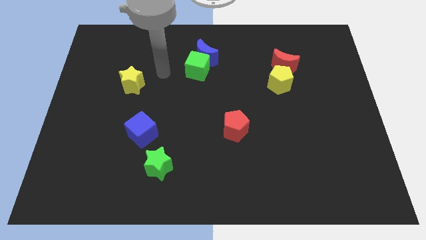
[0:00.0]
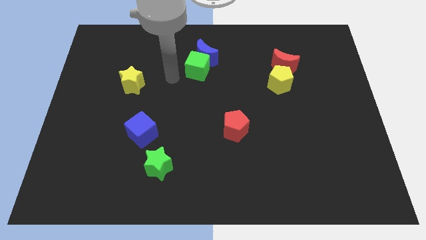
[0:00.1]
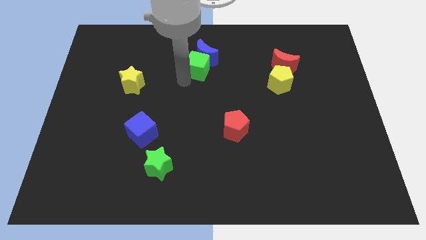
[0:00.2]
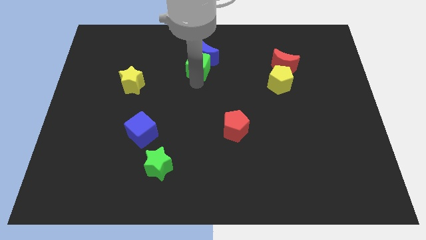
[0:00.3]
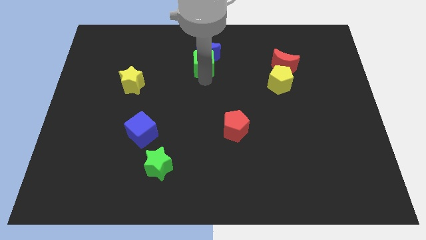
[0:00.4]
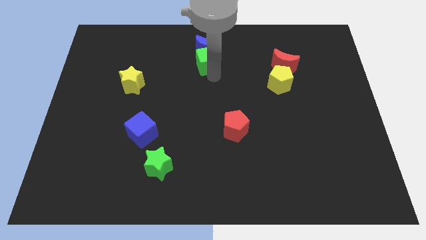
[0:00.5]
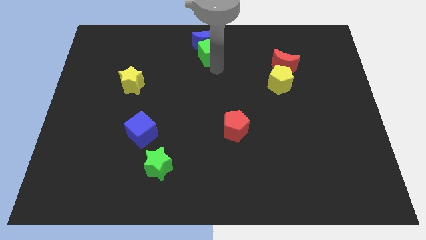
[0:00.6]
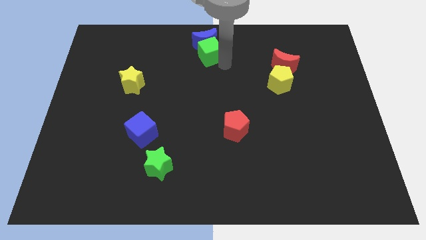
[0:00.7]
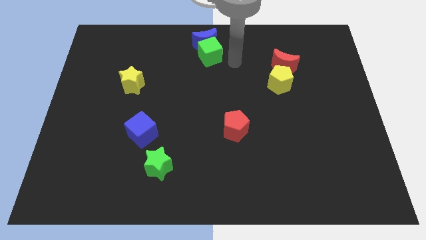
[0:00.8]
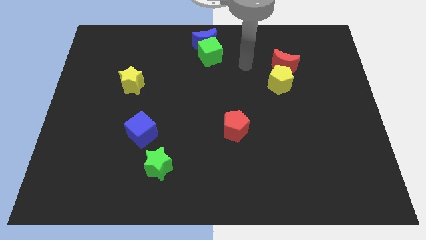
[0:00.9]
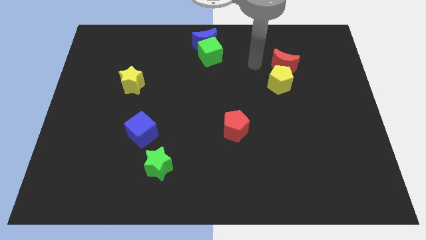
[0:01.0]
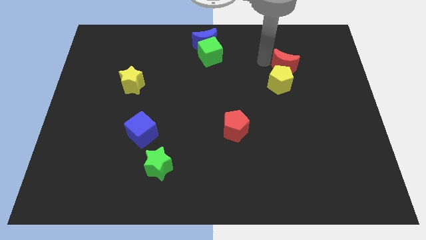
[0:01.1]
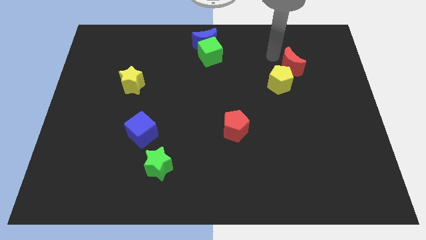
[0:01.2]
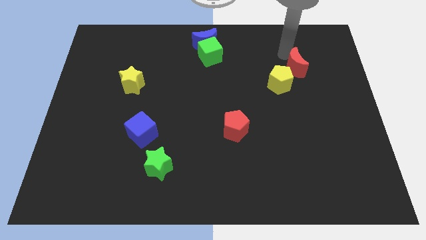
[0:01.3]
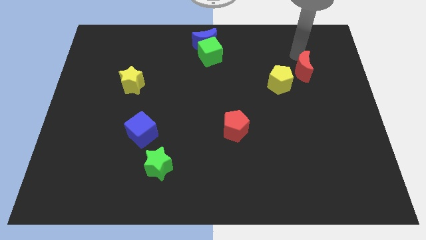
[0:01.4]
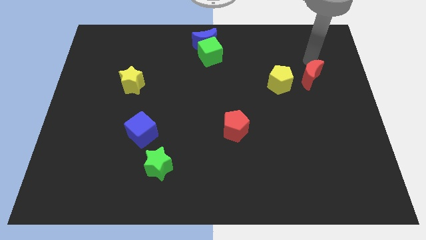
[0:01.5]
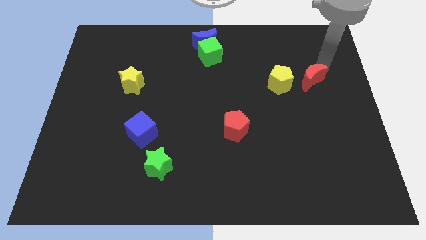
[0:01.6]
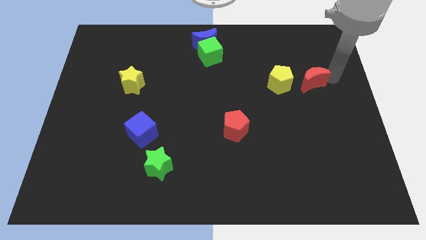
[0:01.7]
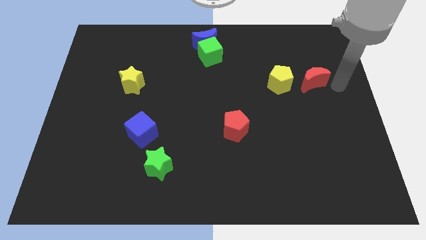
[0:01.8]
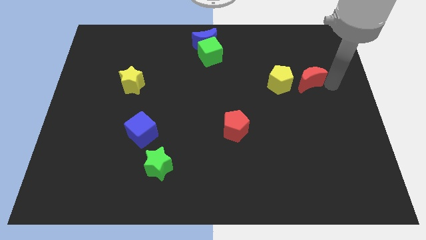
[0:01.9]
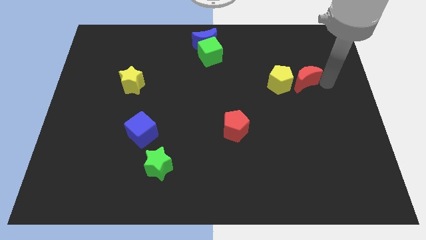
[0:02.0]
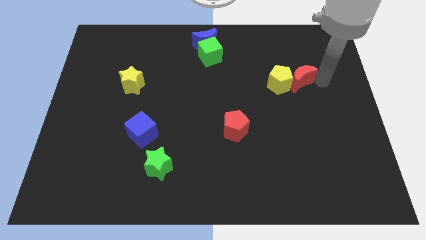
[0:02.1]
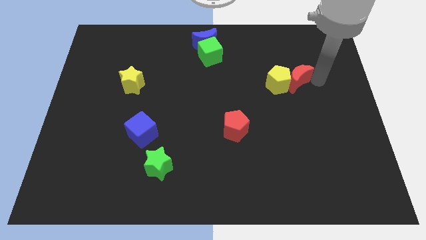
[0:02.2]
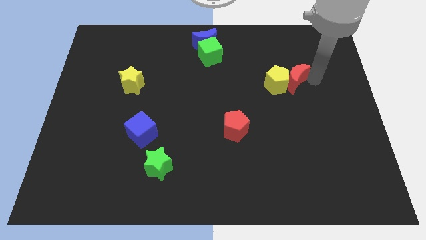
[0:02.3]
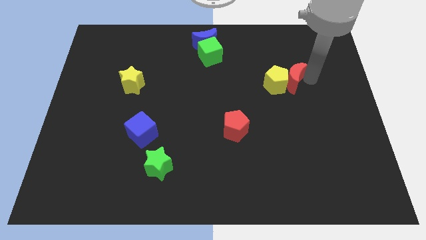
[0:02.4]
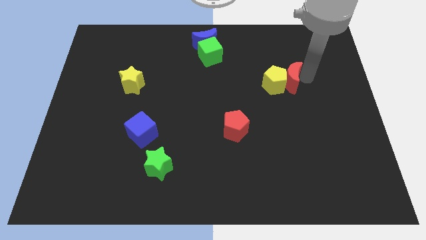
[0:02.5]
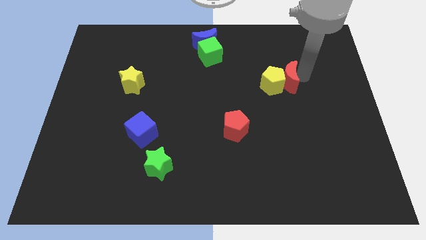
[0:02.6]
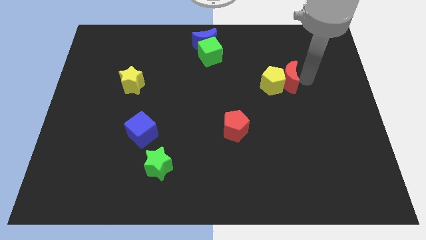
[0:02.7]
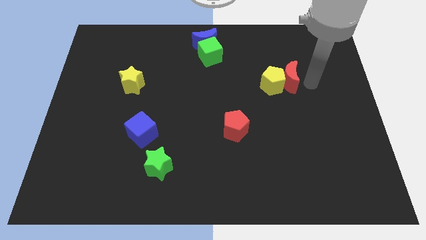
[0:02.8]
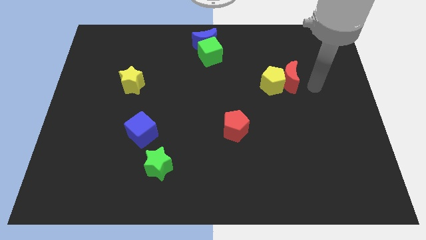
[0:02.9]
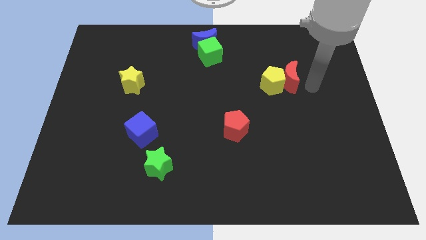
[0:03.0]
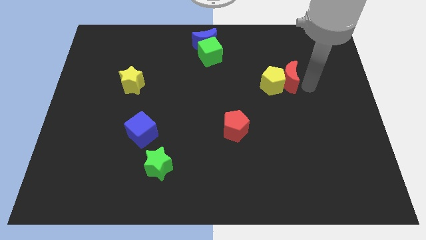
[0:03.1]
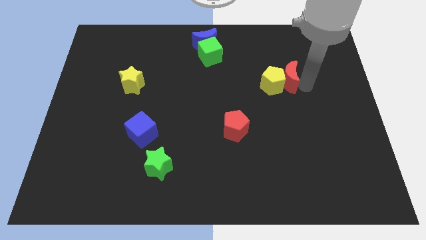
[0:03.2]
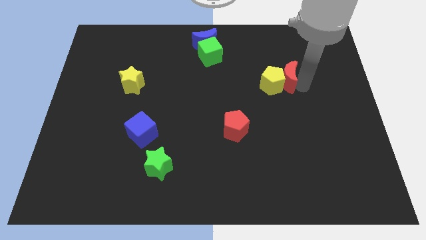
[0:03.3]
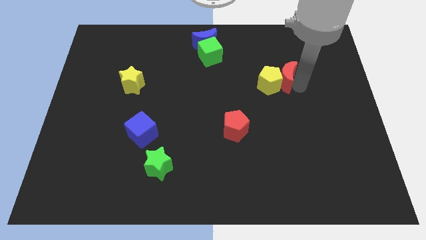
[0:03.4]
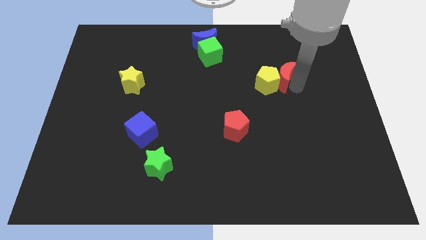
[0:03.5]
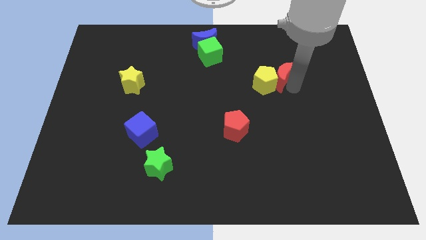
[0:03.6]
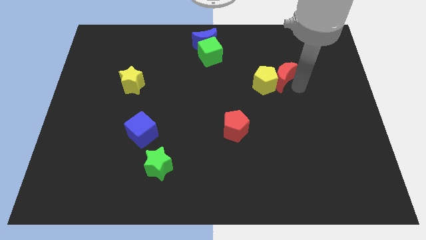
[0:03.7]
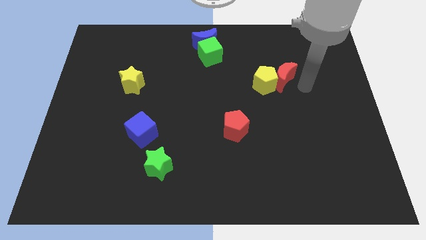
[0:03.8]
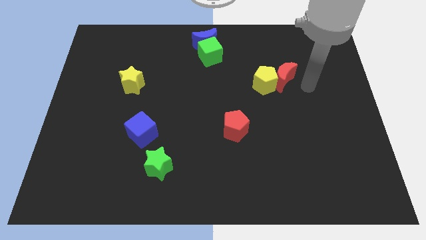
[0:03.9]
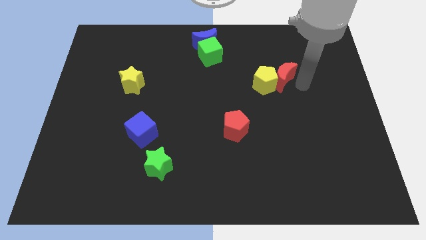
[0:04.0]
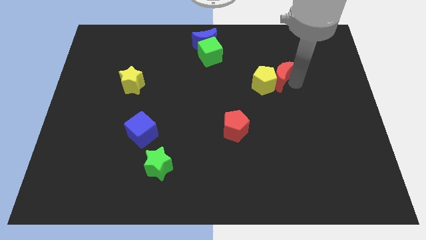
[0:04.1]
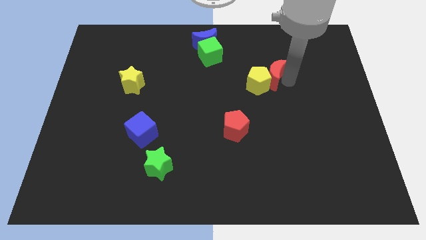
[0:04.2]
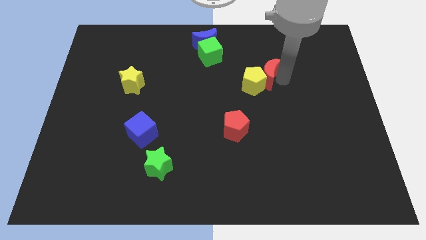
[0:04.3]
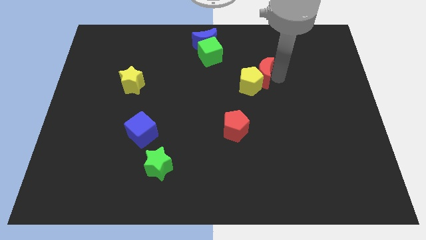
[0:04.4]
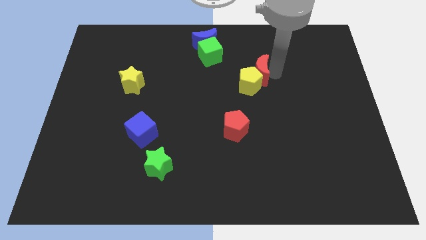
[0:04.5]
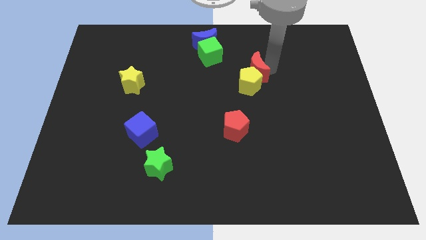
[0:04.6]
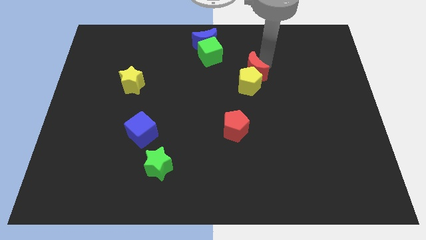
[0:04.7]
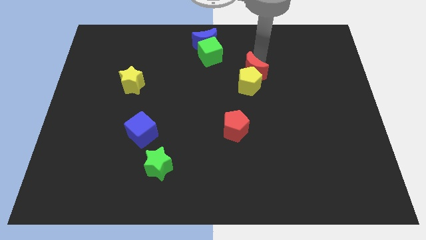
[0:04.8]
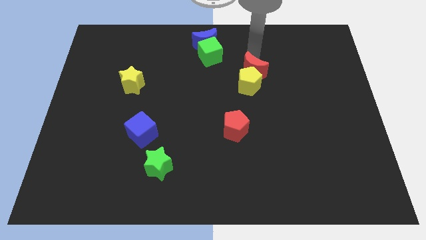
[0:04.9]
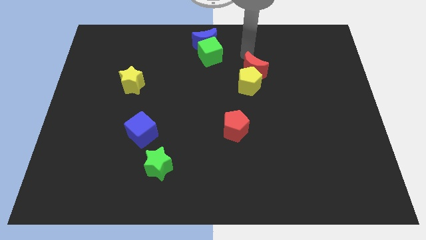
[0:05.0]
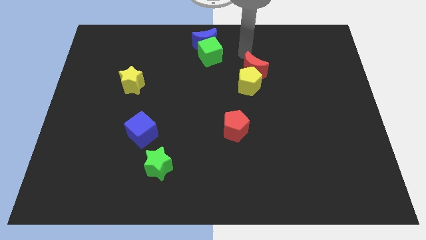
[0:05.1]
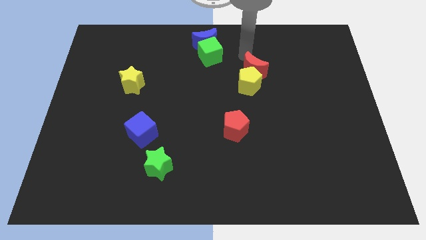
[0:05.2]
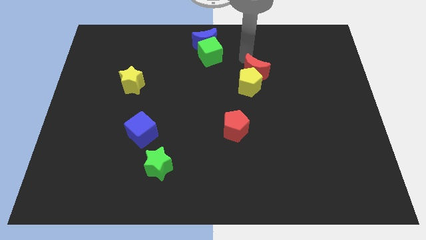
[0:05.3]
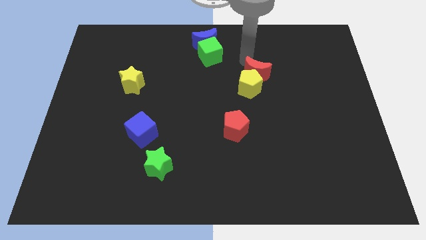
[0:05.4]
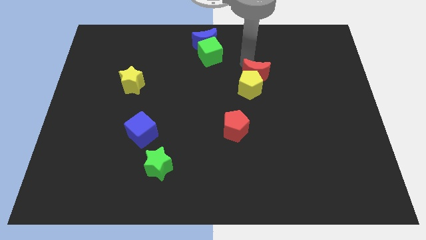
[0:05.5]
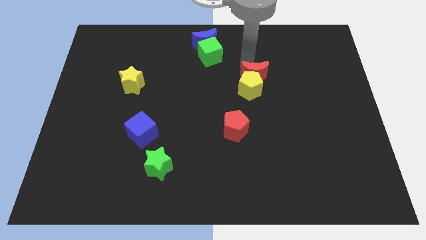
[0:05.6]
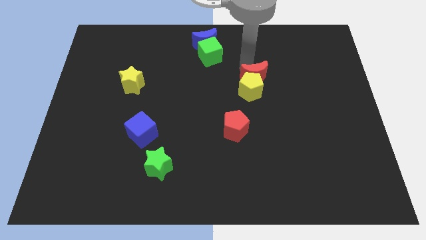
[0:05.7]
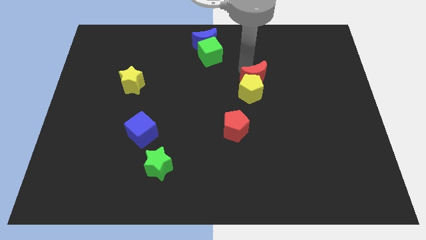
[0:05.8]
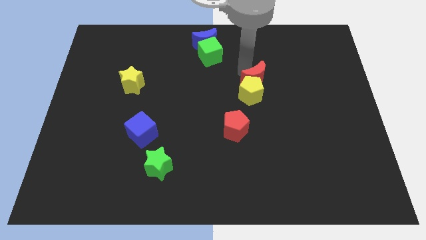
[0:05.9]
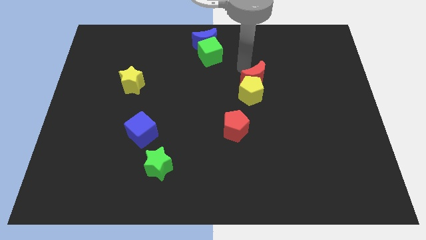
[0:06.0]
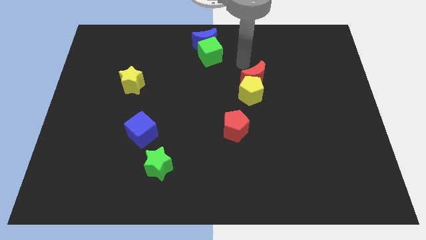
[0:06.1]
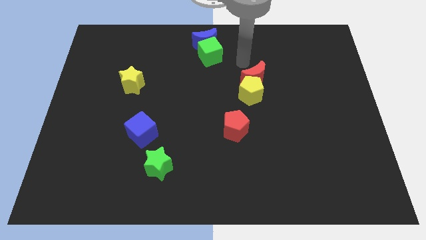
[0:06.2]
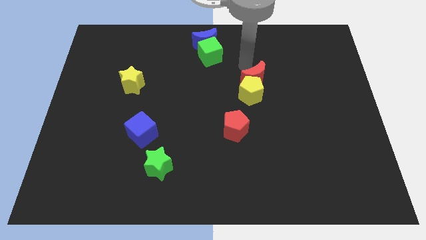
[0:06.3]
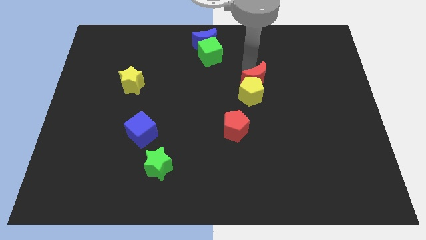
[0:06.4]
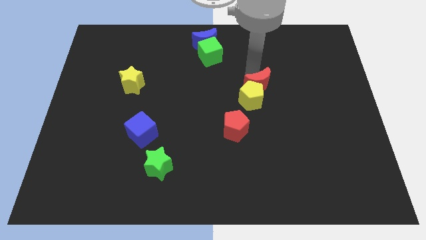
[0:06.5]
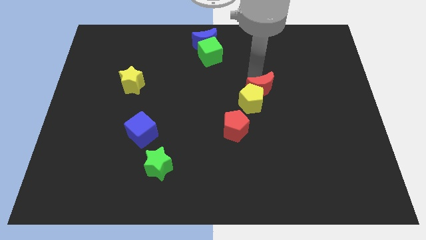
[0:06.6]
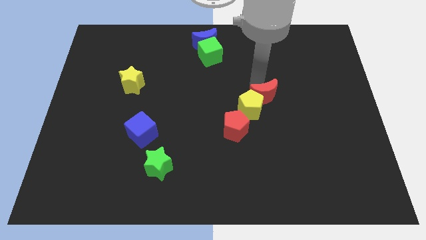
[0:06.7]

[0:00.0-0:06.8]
push the red moon down a little

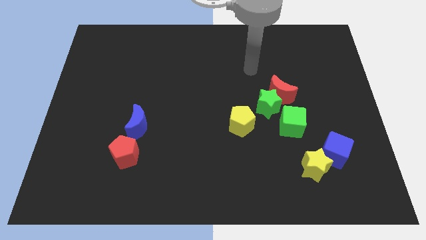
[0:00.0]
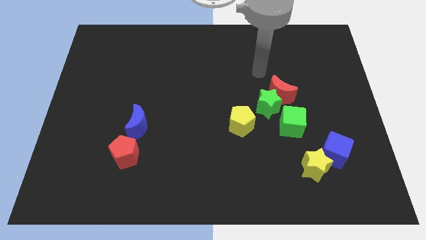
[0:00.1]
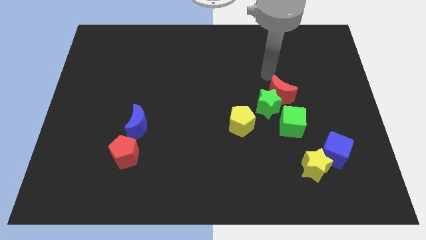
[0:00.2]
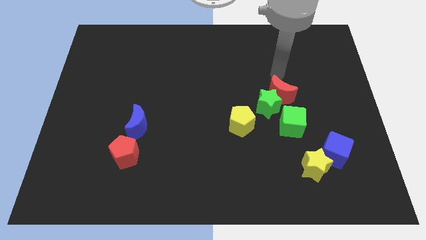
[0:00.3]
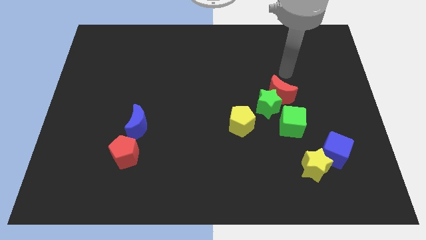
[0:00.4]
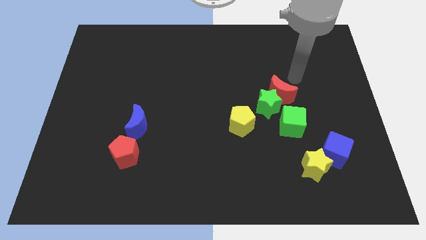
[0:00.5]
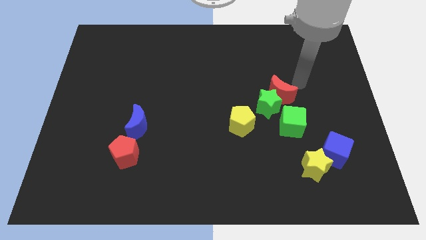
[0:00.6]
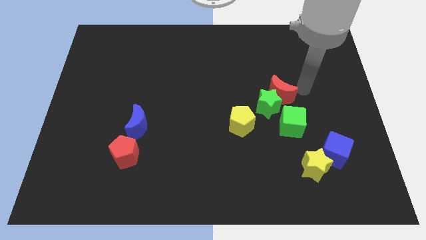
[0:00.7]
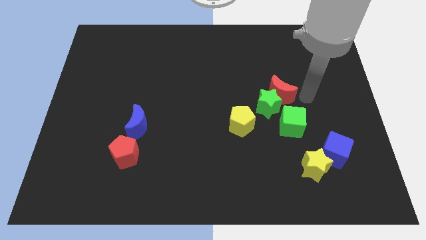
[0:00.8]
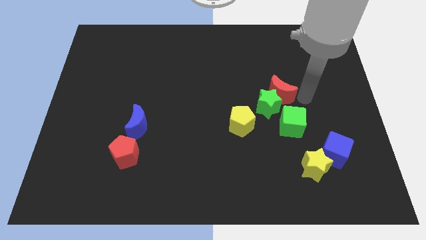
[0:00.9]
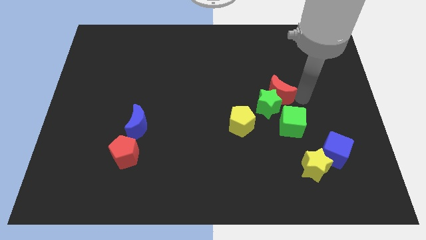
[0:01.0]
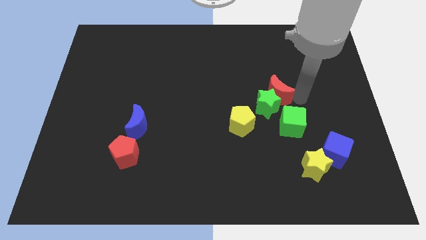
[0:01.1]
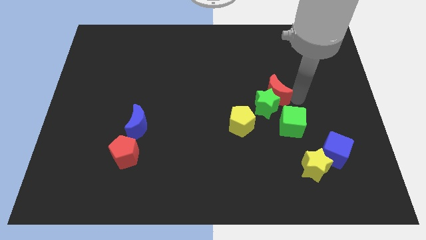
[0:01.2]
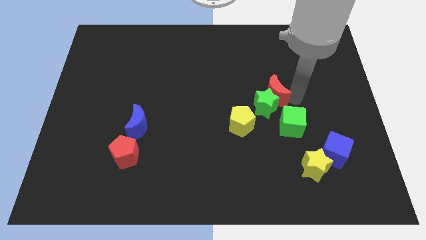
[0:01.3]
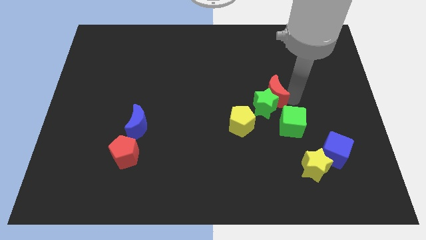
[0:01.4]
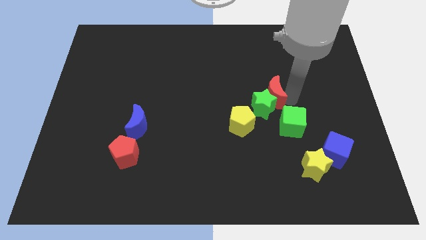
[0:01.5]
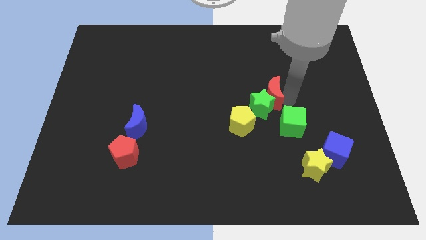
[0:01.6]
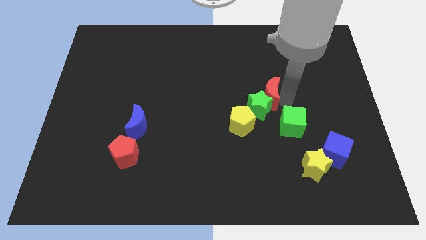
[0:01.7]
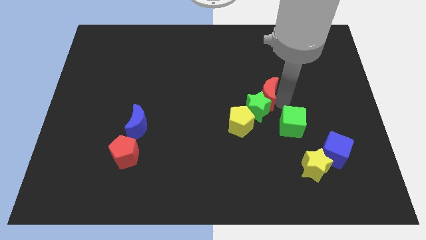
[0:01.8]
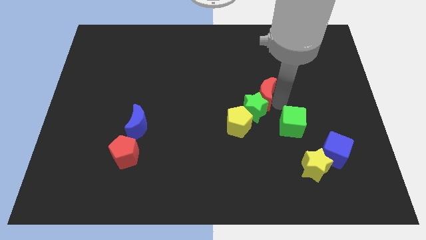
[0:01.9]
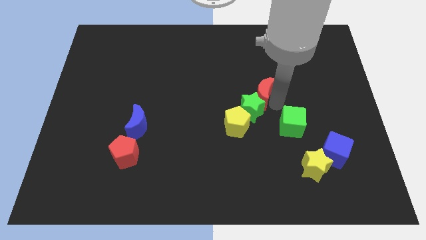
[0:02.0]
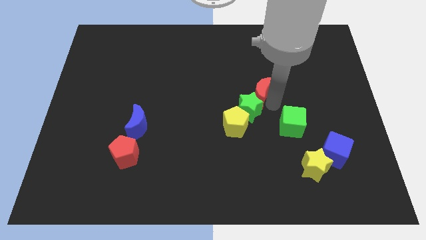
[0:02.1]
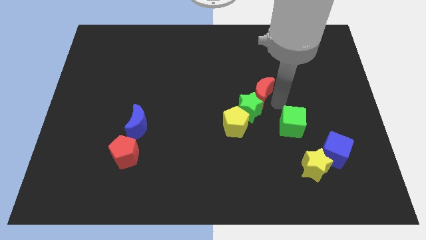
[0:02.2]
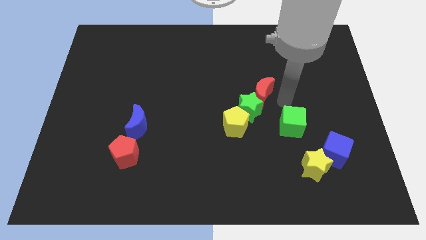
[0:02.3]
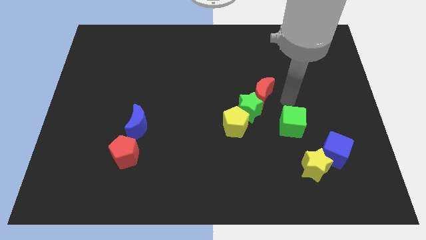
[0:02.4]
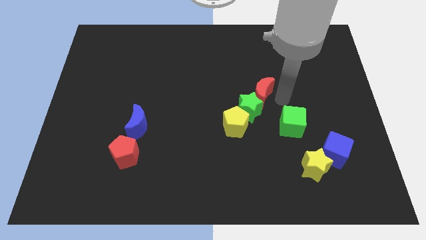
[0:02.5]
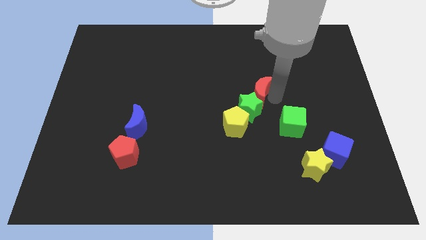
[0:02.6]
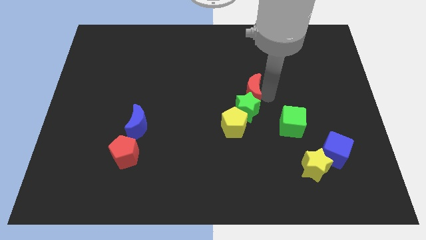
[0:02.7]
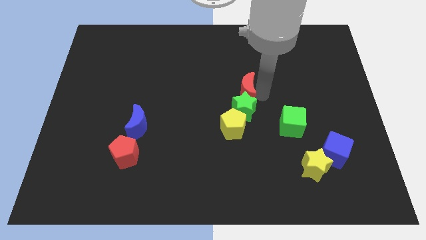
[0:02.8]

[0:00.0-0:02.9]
push the red moon left somewhat
